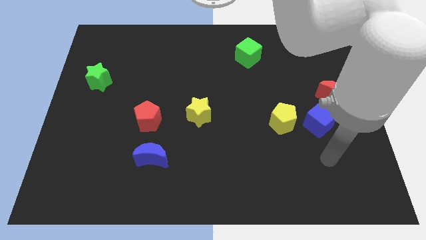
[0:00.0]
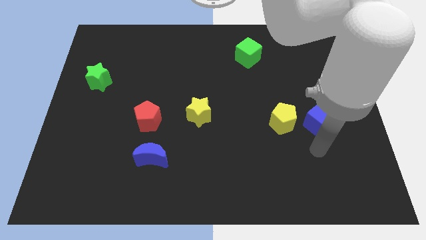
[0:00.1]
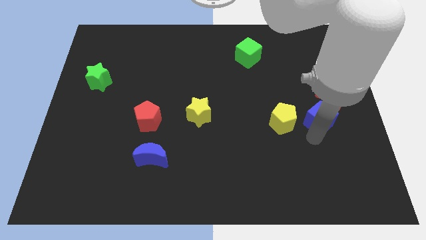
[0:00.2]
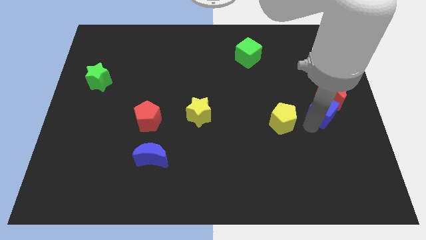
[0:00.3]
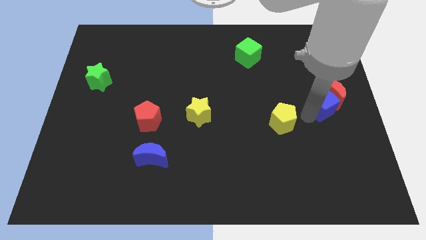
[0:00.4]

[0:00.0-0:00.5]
pull the yellow pentagon apart from the blue cube

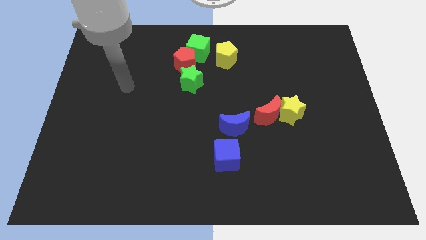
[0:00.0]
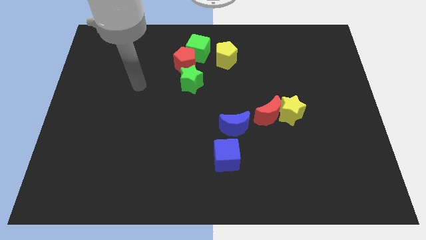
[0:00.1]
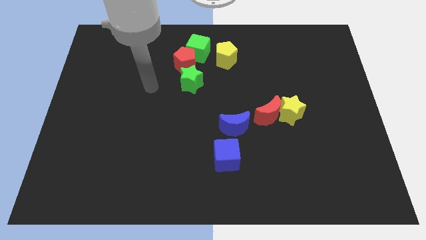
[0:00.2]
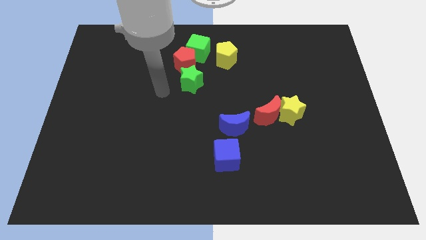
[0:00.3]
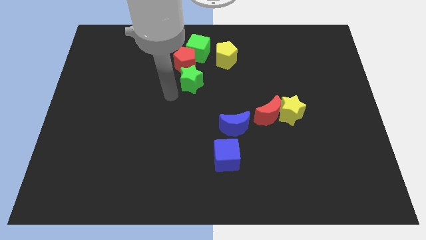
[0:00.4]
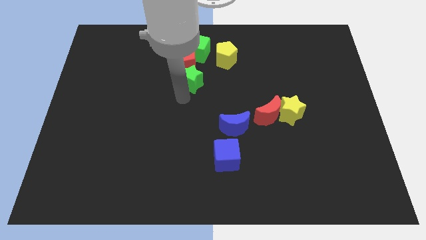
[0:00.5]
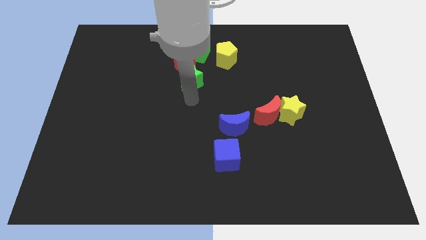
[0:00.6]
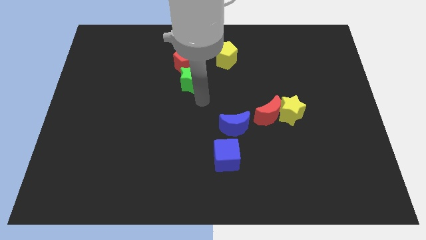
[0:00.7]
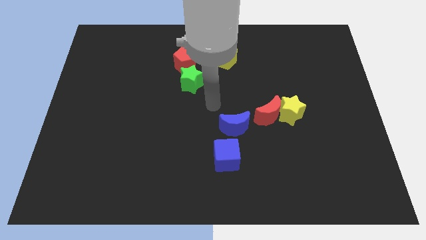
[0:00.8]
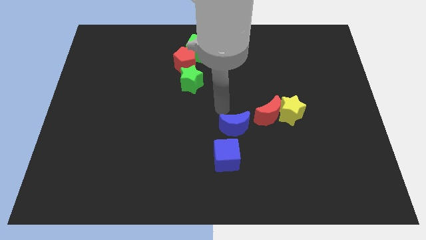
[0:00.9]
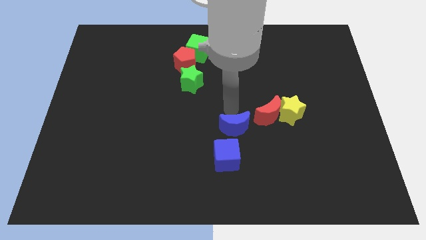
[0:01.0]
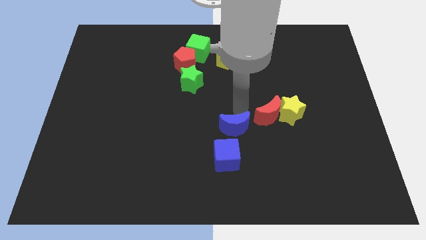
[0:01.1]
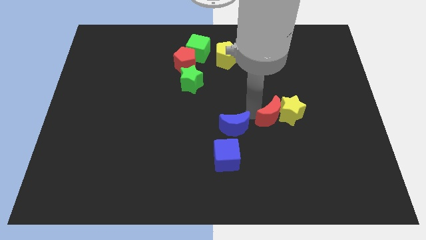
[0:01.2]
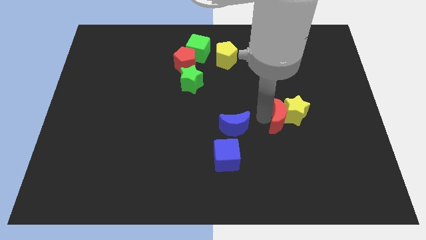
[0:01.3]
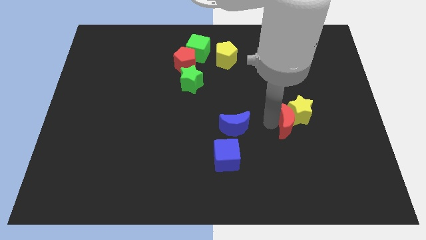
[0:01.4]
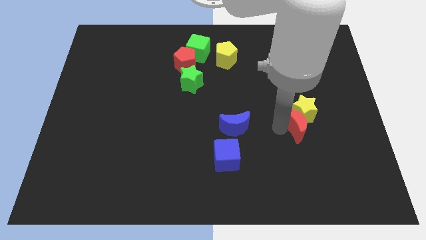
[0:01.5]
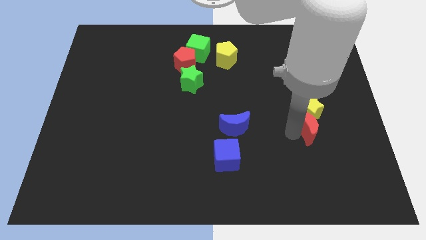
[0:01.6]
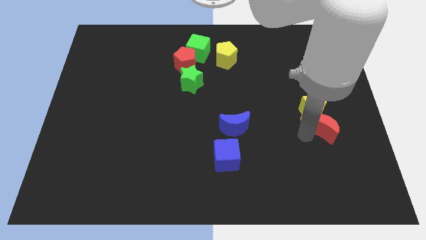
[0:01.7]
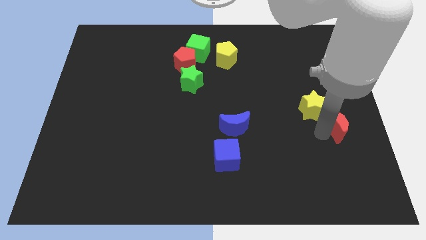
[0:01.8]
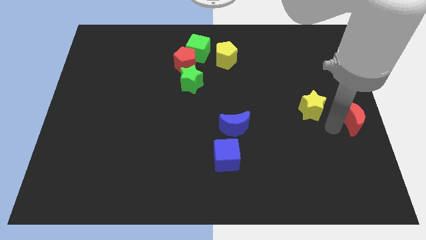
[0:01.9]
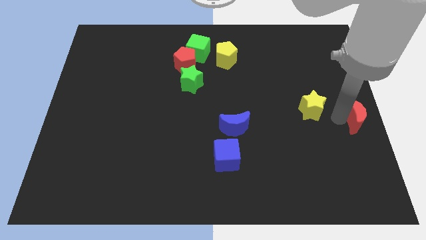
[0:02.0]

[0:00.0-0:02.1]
move the yellow star away from the red moon

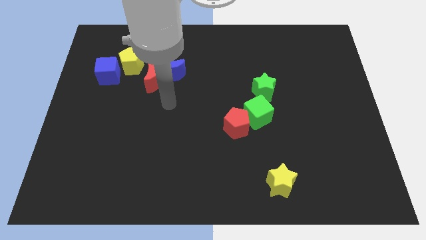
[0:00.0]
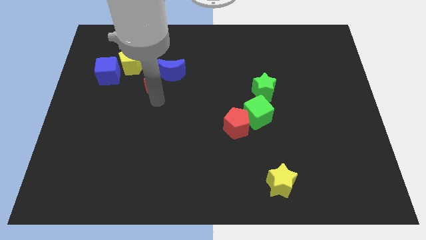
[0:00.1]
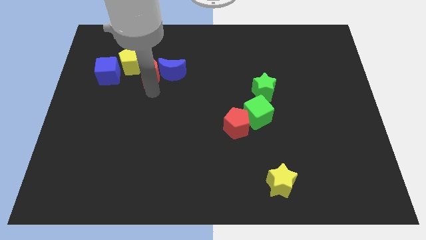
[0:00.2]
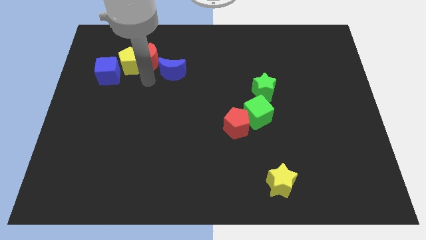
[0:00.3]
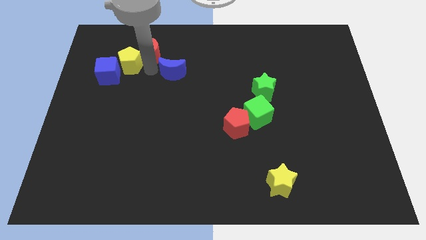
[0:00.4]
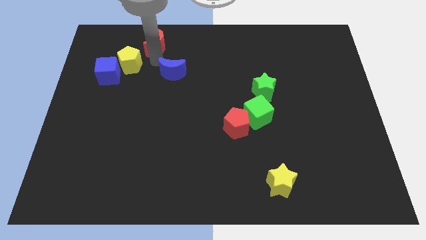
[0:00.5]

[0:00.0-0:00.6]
separate the blue moon from the red moon

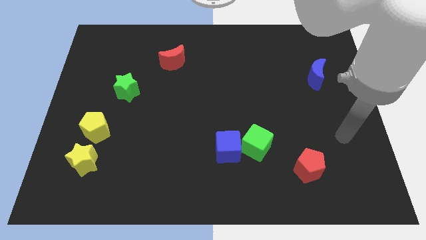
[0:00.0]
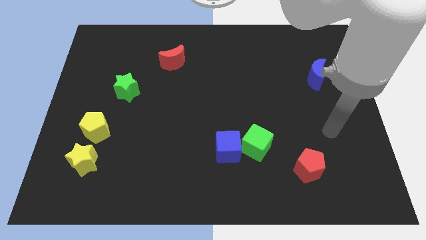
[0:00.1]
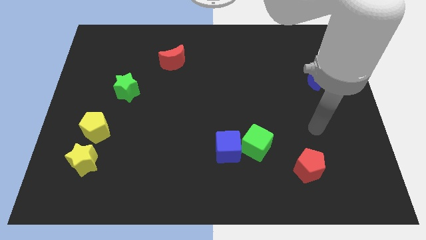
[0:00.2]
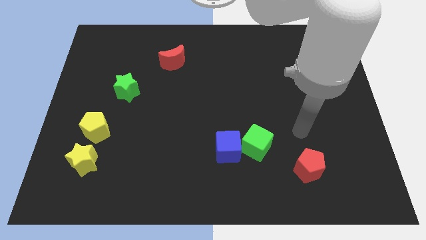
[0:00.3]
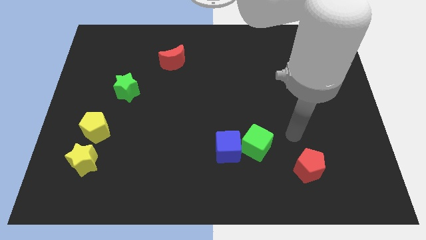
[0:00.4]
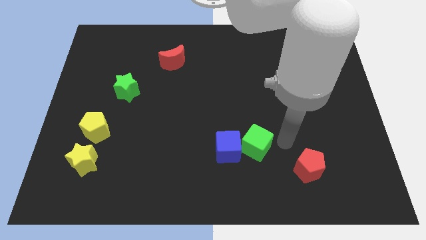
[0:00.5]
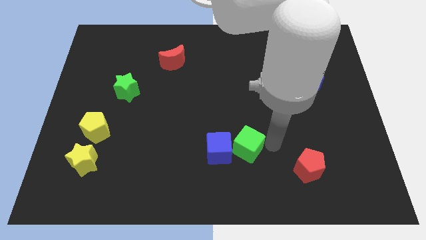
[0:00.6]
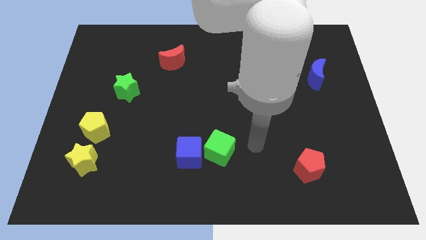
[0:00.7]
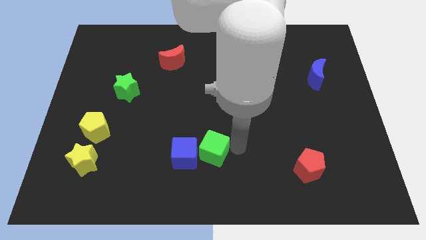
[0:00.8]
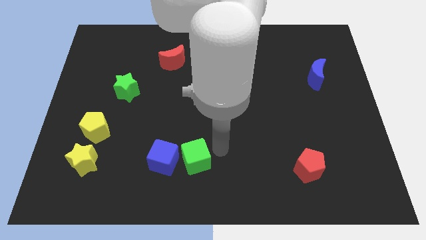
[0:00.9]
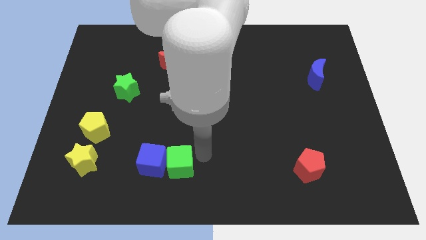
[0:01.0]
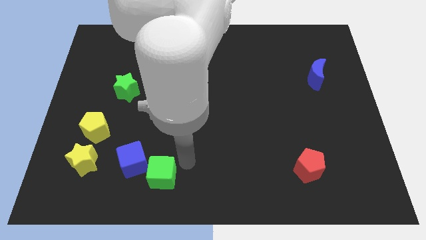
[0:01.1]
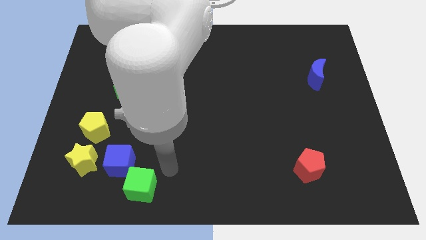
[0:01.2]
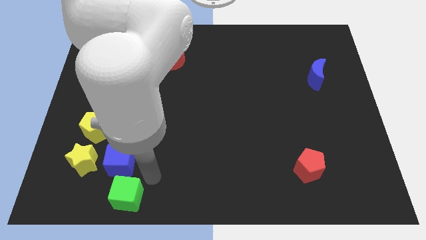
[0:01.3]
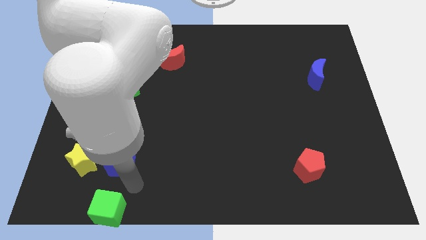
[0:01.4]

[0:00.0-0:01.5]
pull the blue cube apart from the green cube

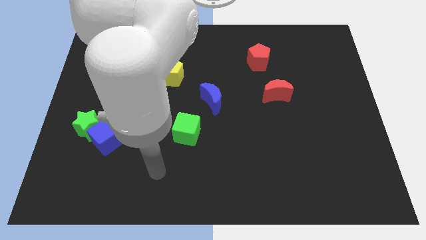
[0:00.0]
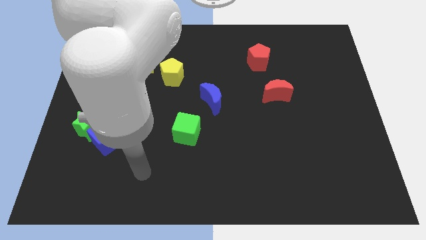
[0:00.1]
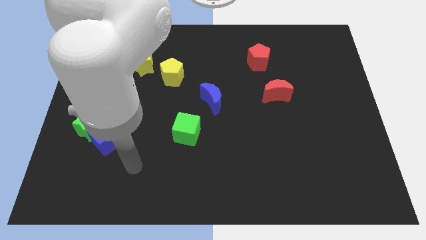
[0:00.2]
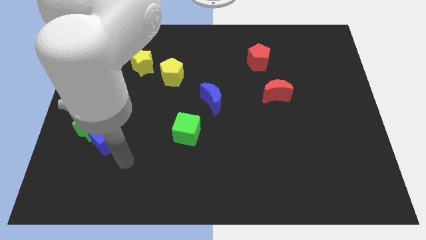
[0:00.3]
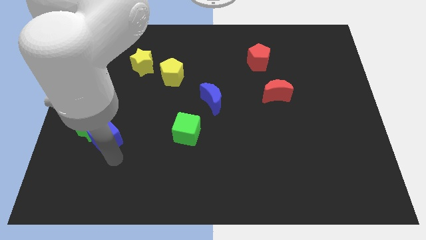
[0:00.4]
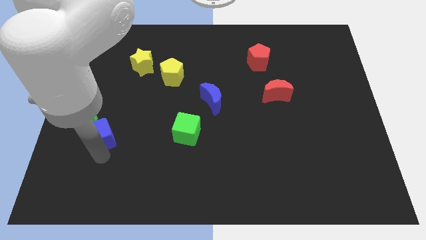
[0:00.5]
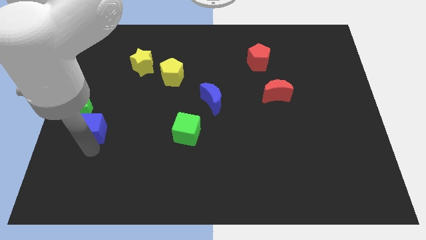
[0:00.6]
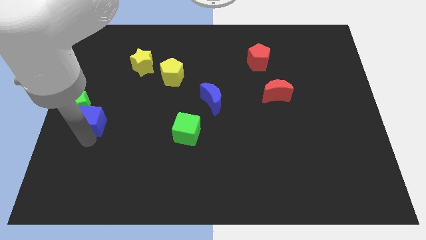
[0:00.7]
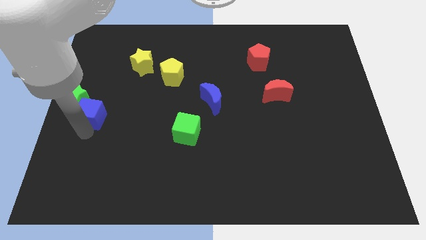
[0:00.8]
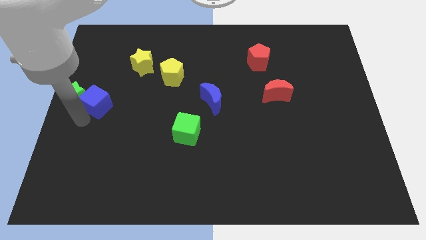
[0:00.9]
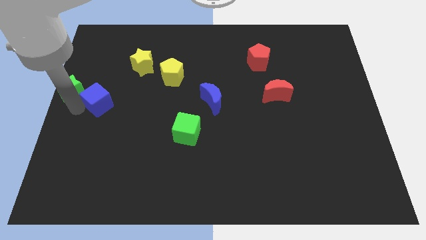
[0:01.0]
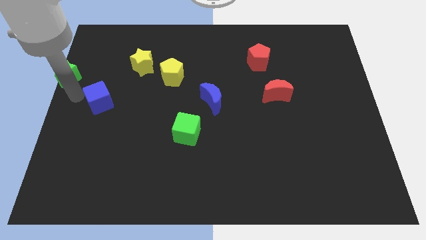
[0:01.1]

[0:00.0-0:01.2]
move the blue cube away from the green star

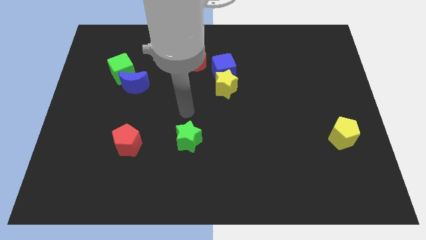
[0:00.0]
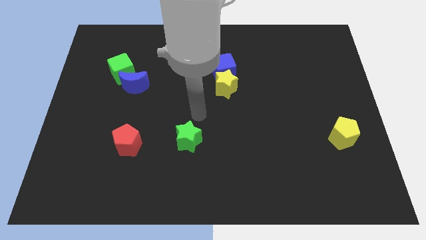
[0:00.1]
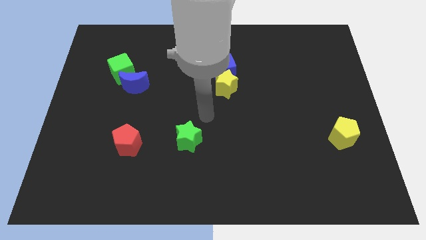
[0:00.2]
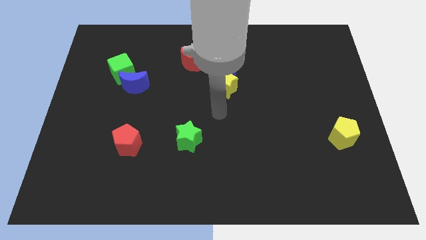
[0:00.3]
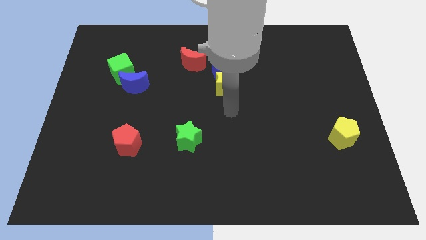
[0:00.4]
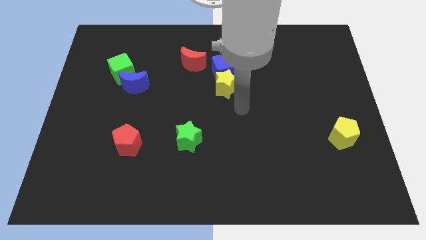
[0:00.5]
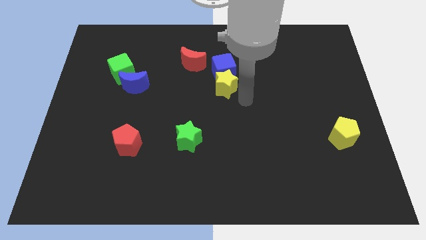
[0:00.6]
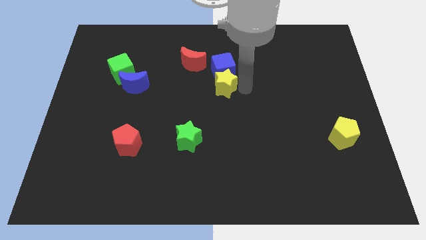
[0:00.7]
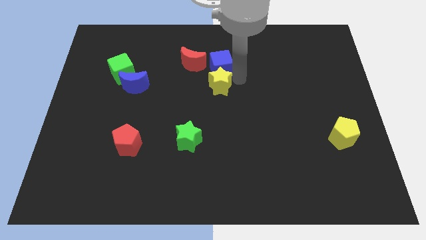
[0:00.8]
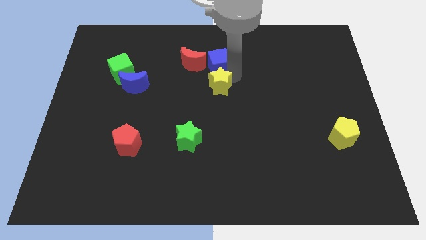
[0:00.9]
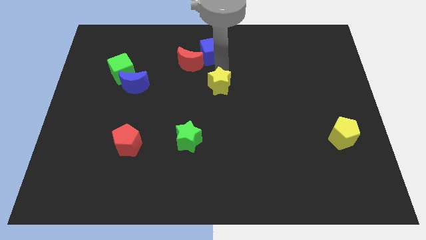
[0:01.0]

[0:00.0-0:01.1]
separate the yellow star from the blue cube

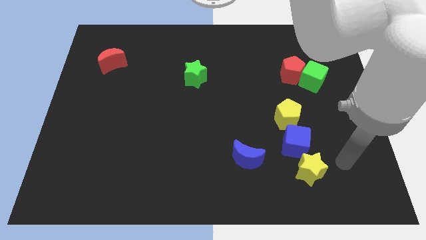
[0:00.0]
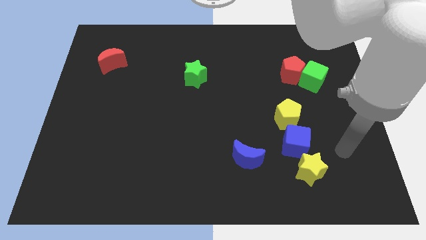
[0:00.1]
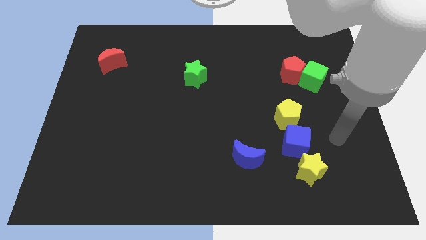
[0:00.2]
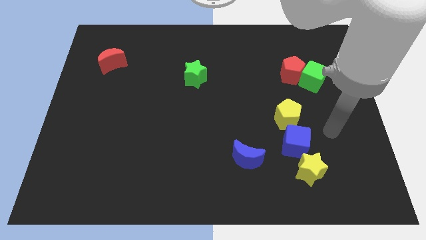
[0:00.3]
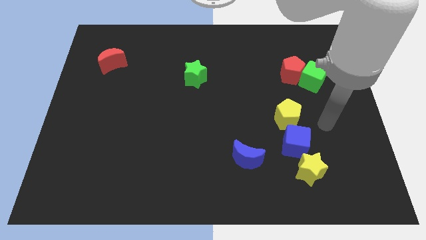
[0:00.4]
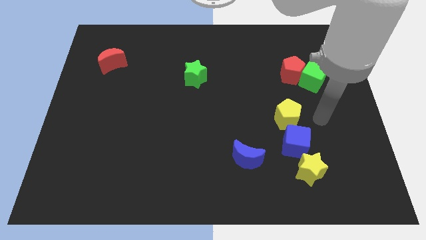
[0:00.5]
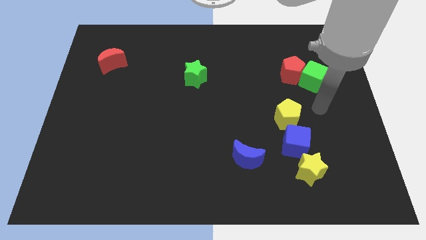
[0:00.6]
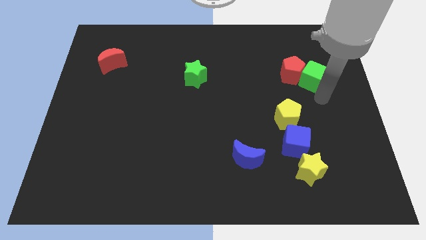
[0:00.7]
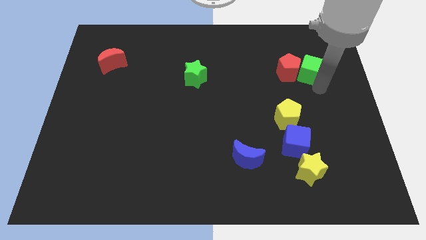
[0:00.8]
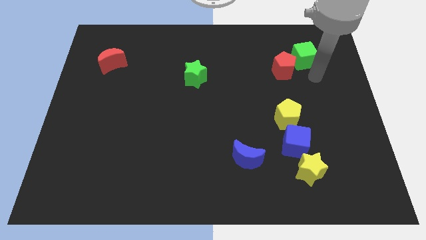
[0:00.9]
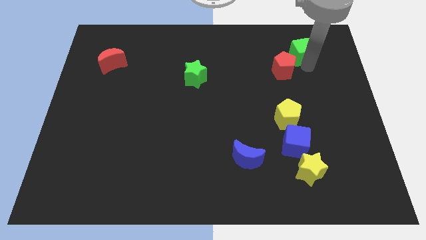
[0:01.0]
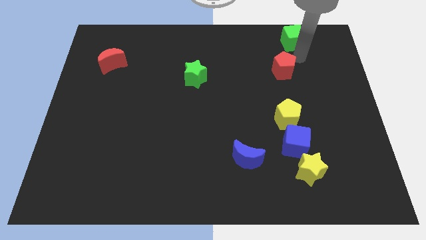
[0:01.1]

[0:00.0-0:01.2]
separate the red pentagon from the green cube

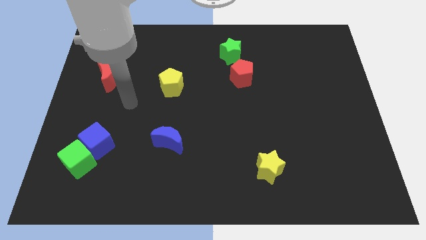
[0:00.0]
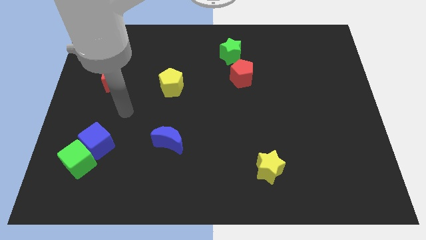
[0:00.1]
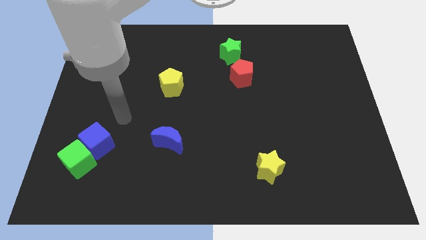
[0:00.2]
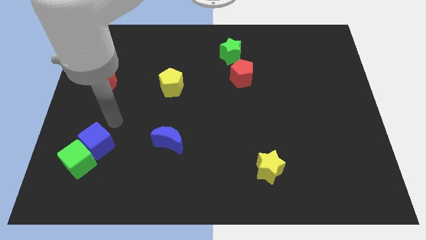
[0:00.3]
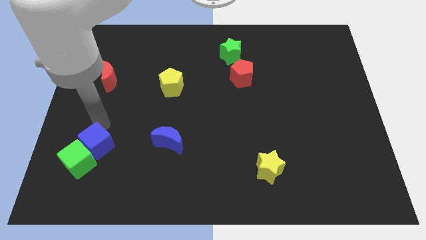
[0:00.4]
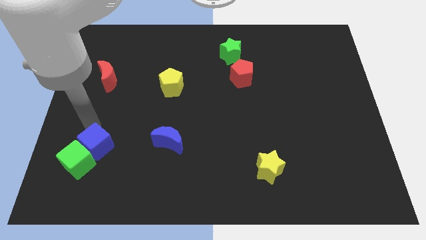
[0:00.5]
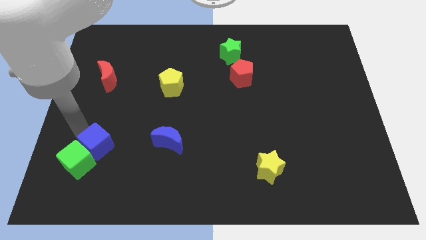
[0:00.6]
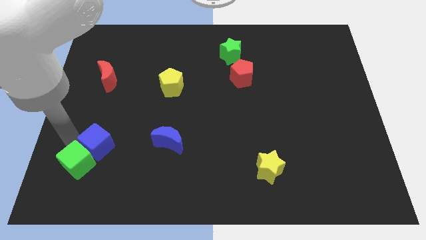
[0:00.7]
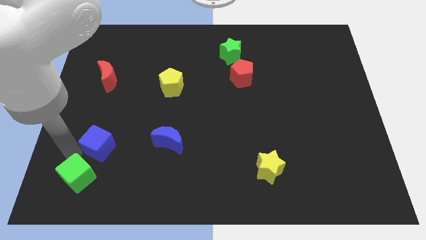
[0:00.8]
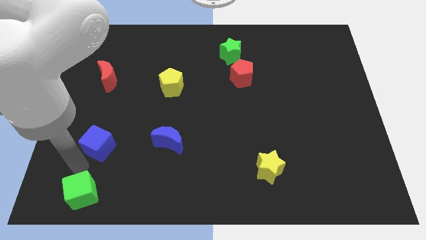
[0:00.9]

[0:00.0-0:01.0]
move the blue cube away from the green cube
